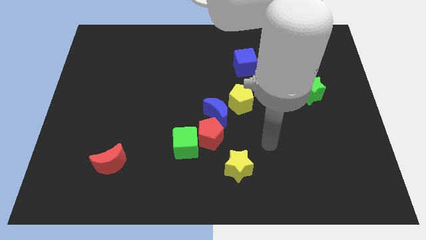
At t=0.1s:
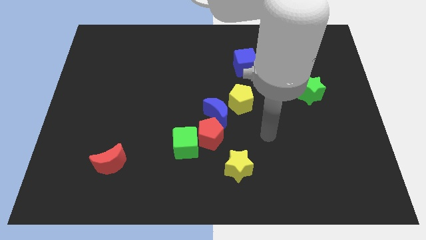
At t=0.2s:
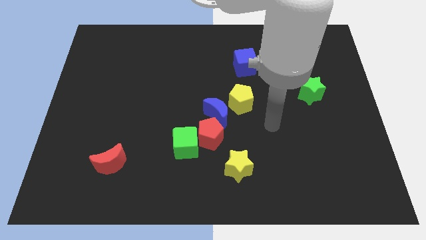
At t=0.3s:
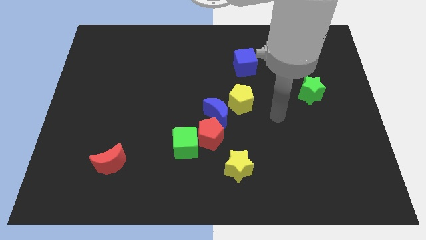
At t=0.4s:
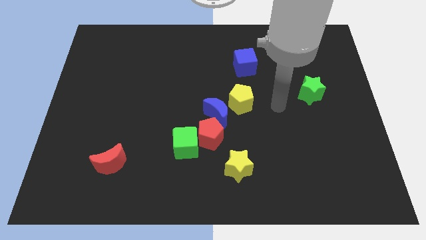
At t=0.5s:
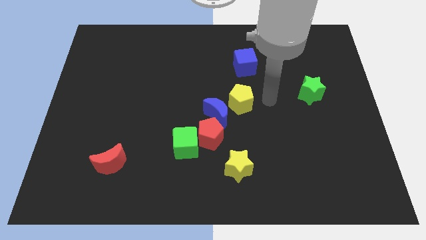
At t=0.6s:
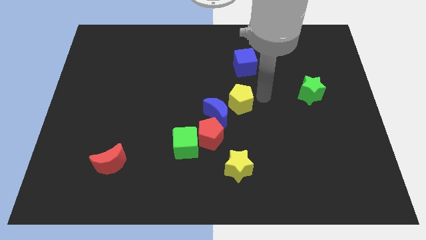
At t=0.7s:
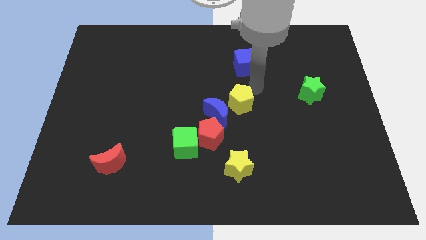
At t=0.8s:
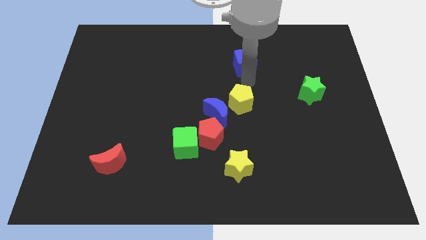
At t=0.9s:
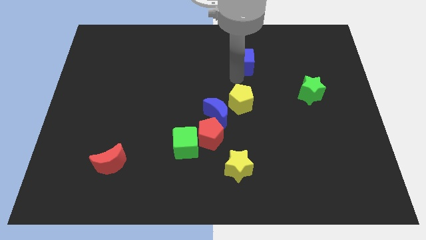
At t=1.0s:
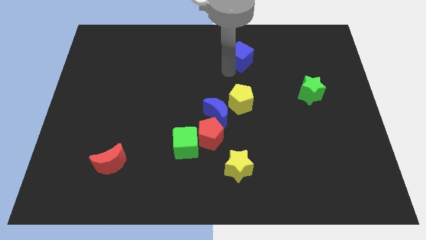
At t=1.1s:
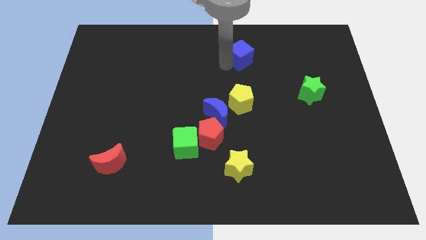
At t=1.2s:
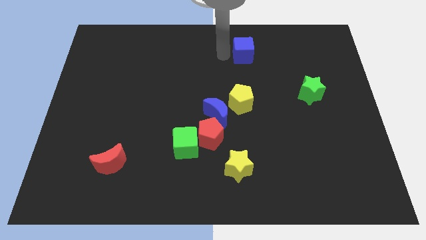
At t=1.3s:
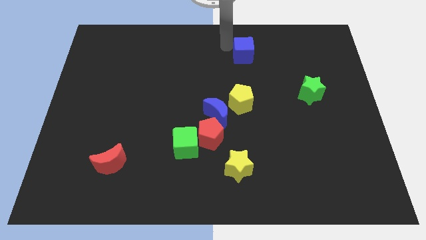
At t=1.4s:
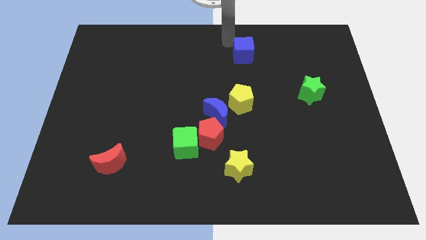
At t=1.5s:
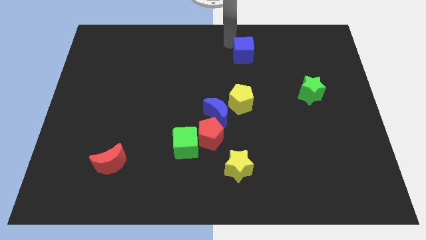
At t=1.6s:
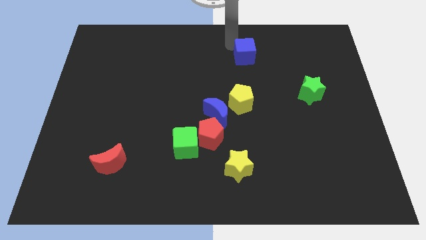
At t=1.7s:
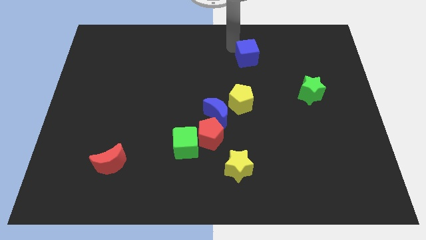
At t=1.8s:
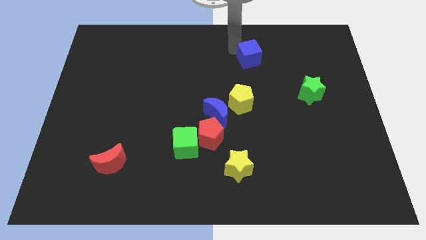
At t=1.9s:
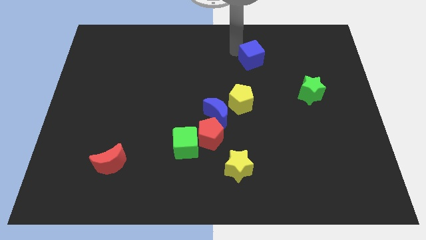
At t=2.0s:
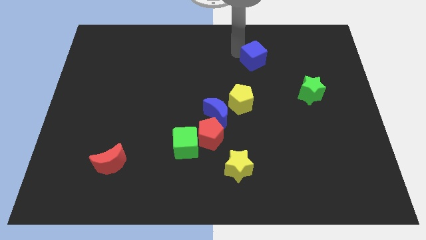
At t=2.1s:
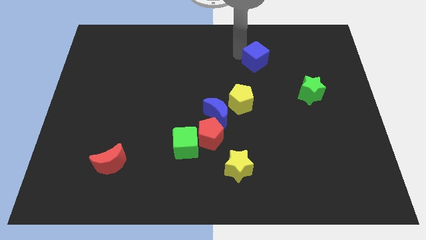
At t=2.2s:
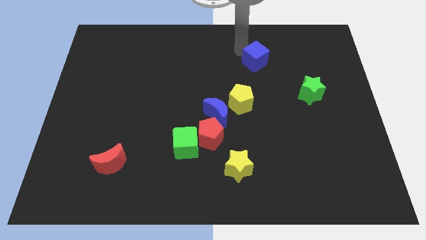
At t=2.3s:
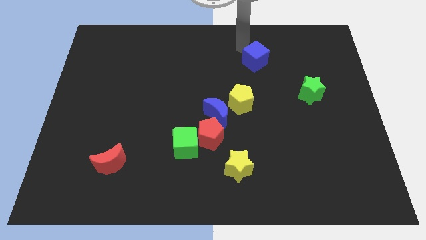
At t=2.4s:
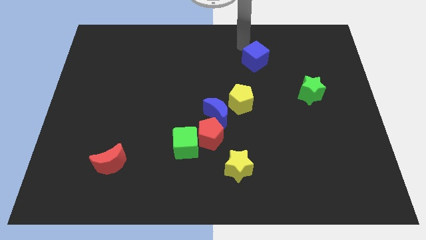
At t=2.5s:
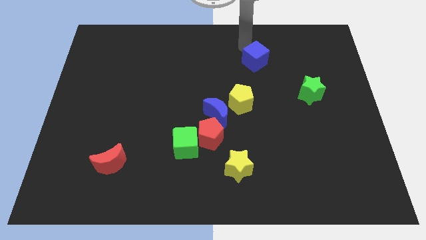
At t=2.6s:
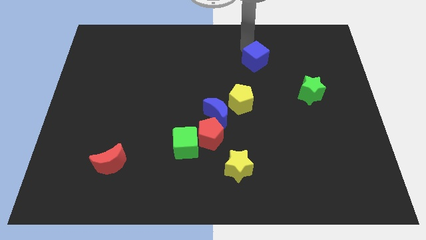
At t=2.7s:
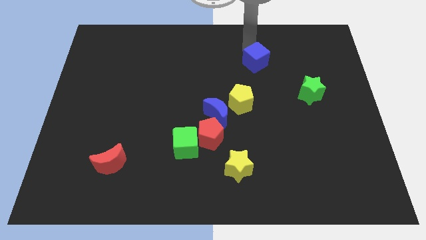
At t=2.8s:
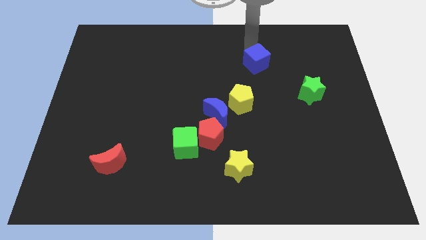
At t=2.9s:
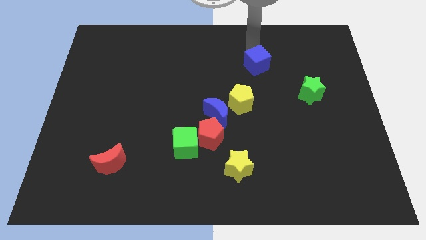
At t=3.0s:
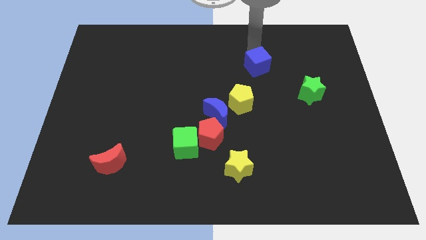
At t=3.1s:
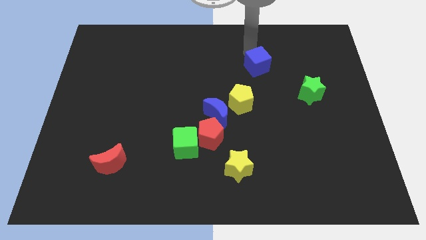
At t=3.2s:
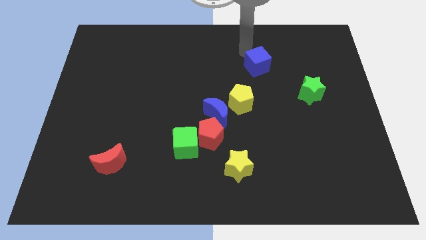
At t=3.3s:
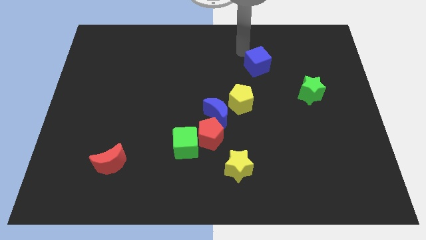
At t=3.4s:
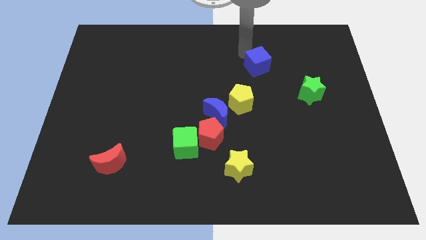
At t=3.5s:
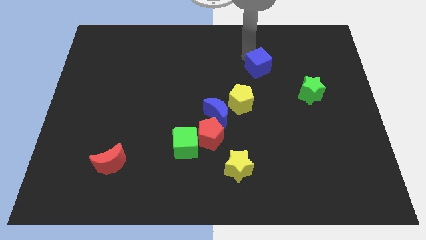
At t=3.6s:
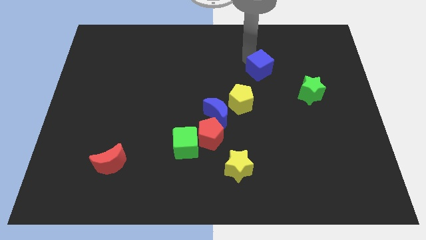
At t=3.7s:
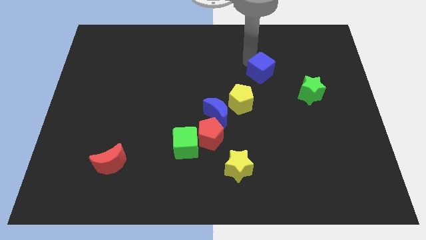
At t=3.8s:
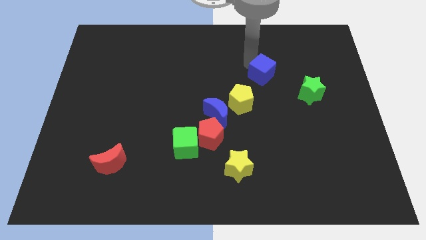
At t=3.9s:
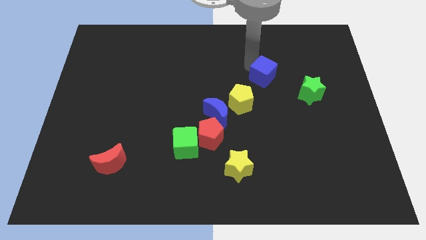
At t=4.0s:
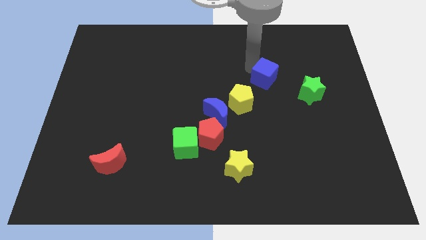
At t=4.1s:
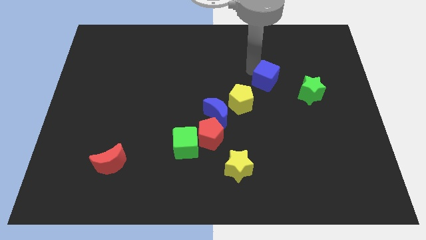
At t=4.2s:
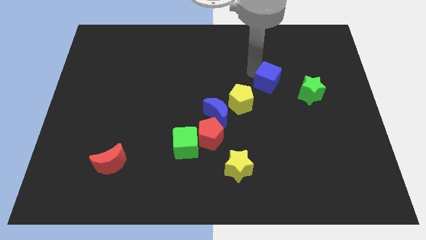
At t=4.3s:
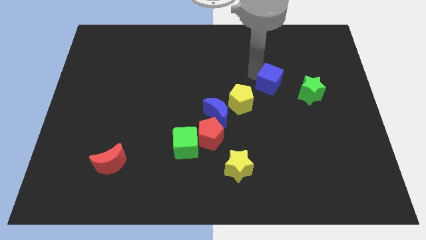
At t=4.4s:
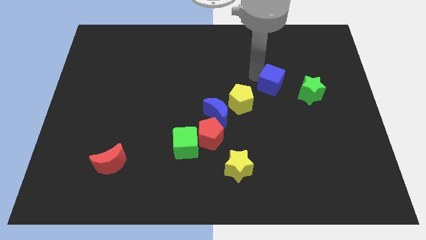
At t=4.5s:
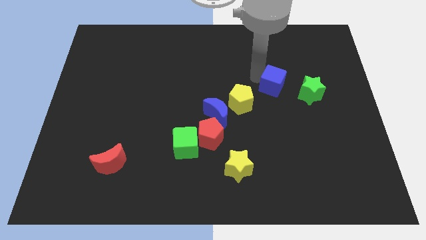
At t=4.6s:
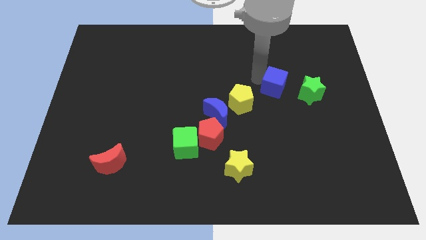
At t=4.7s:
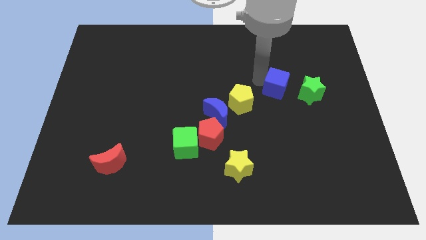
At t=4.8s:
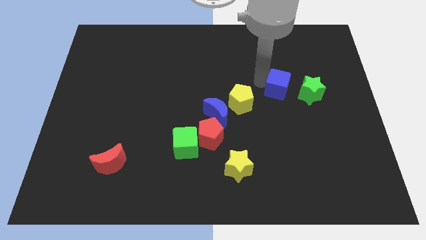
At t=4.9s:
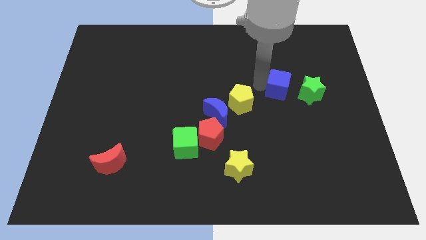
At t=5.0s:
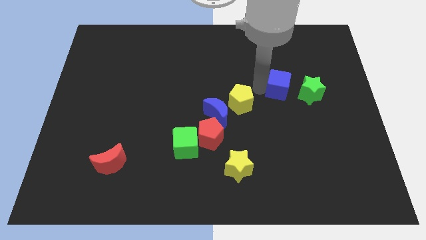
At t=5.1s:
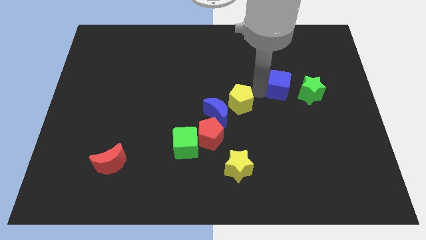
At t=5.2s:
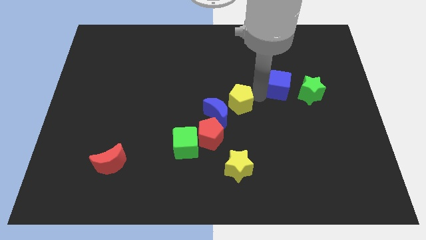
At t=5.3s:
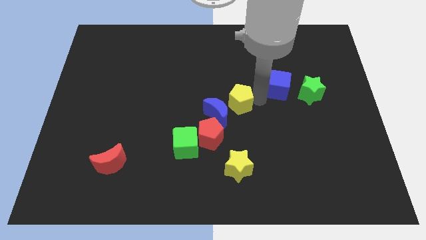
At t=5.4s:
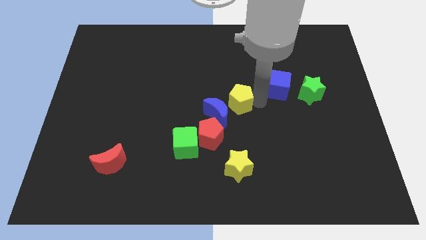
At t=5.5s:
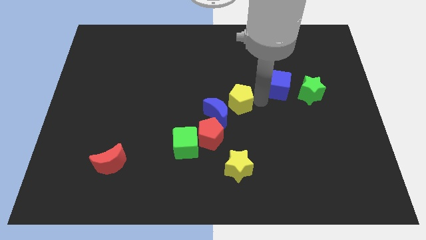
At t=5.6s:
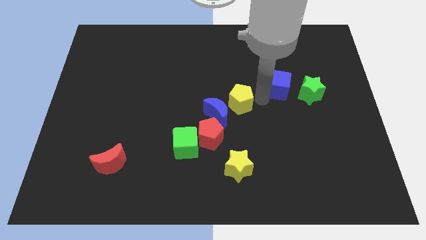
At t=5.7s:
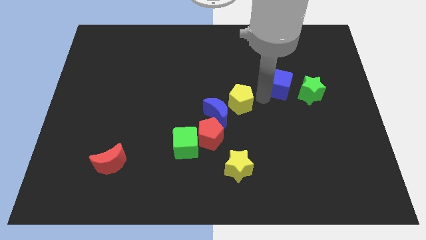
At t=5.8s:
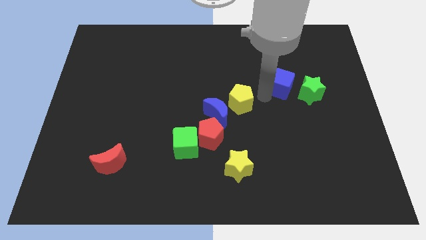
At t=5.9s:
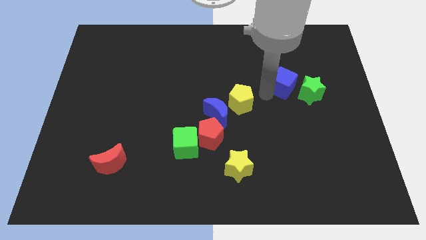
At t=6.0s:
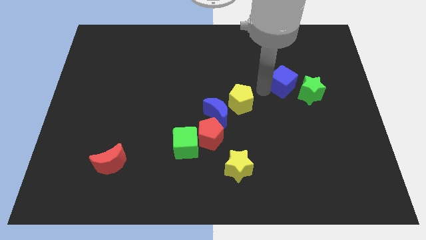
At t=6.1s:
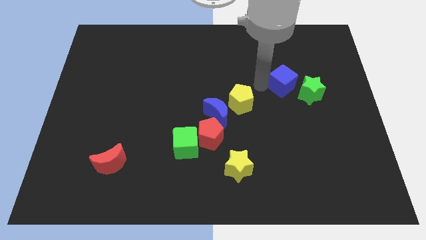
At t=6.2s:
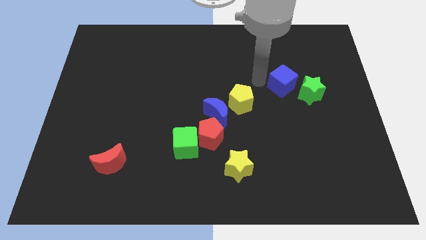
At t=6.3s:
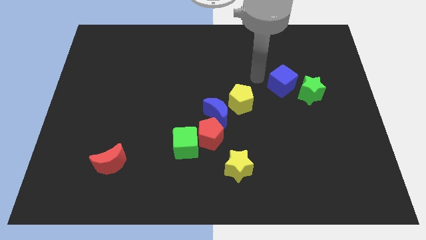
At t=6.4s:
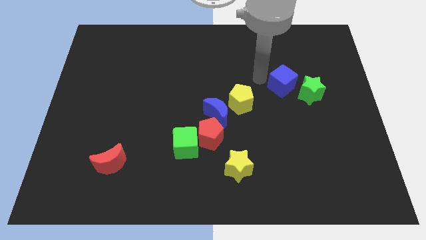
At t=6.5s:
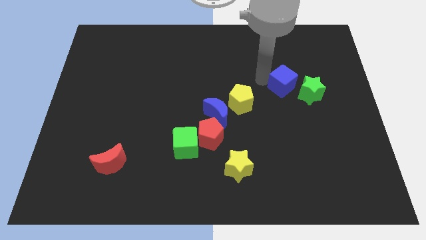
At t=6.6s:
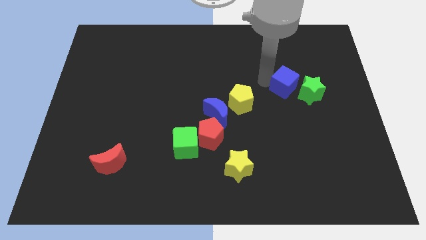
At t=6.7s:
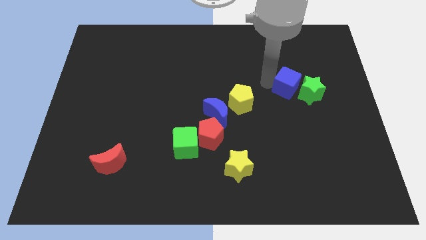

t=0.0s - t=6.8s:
slide the blue cube next to the green star

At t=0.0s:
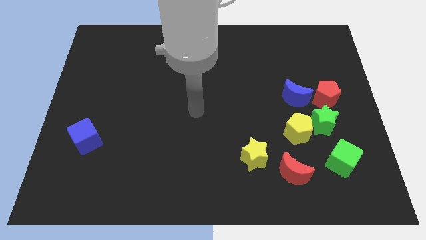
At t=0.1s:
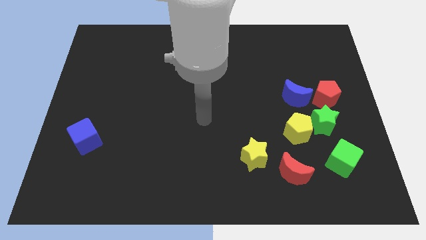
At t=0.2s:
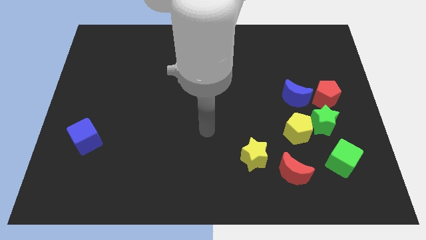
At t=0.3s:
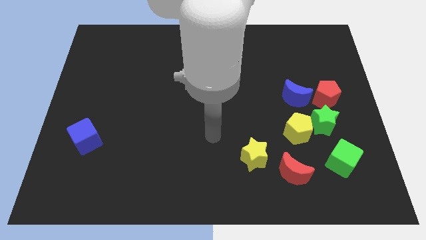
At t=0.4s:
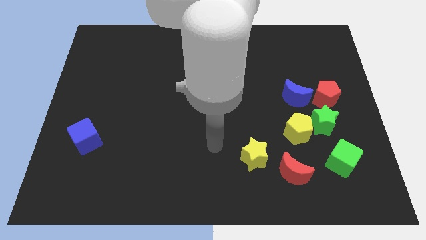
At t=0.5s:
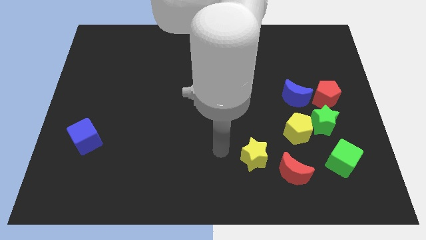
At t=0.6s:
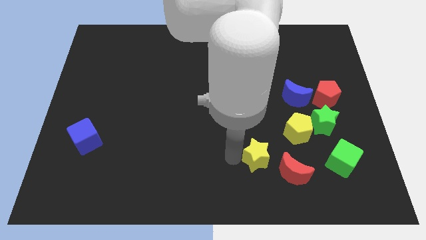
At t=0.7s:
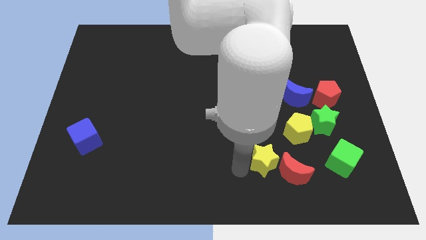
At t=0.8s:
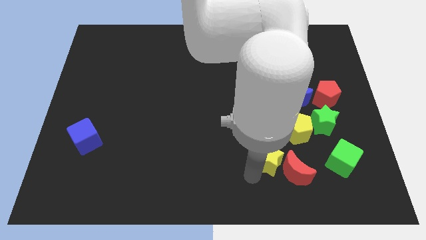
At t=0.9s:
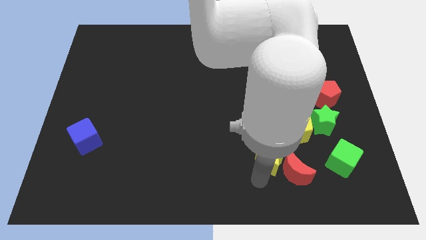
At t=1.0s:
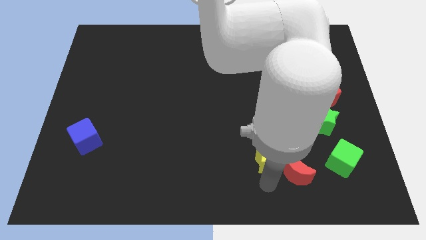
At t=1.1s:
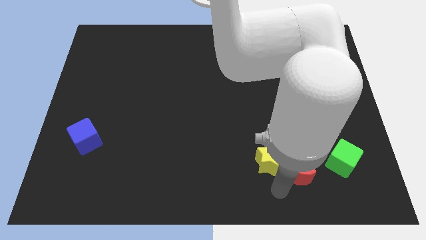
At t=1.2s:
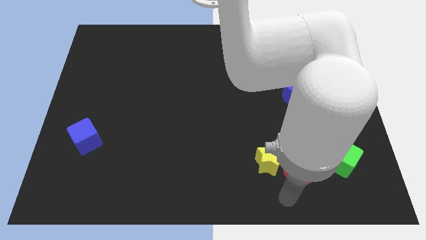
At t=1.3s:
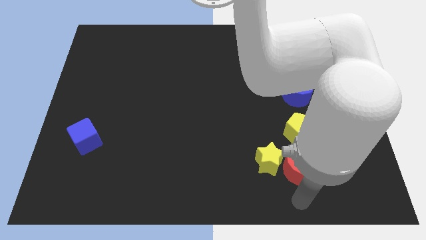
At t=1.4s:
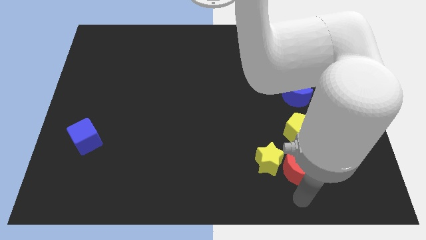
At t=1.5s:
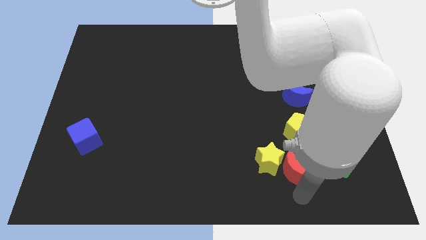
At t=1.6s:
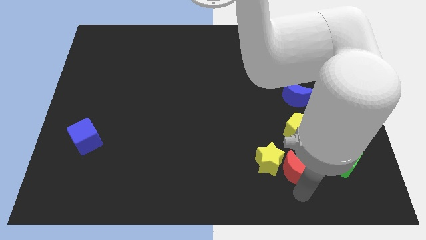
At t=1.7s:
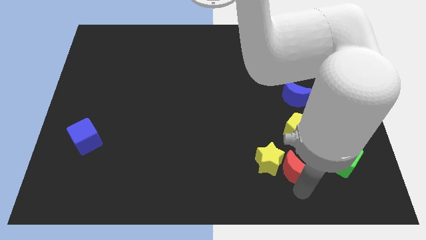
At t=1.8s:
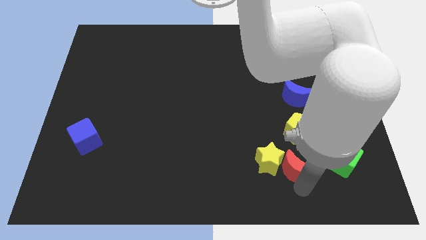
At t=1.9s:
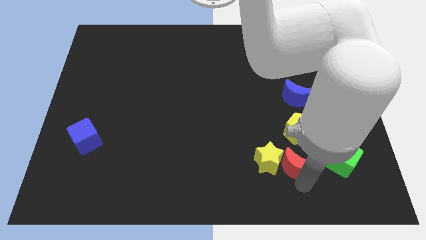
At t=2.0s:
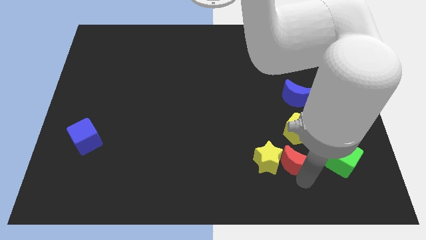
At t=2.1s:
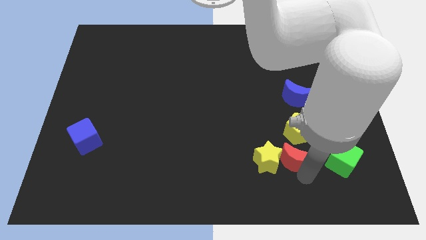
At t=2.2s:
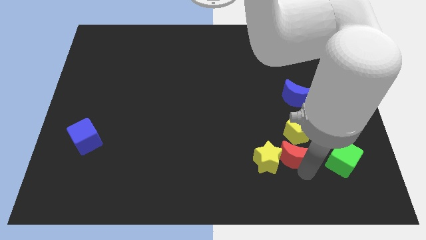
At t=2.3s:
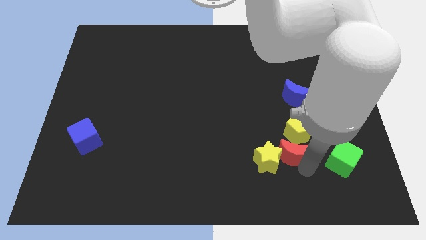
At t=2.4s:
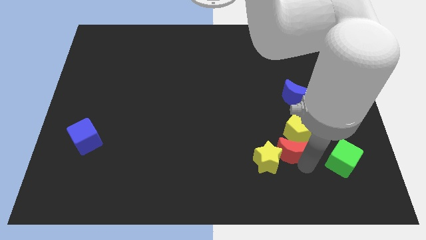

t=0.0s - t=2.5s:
move the red moon next to the yellow pentagon
